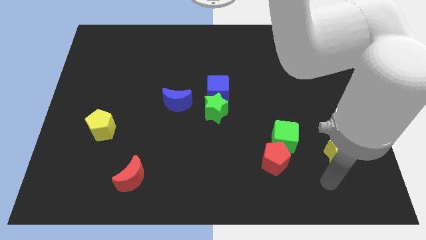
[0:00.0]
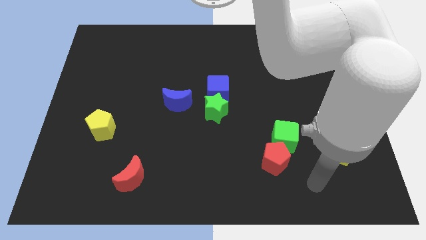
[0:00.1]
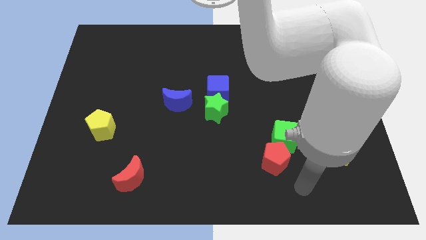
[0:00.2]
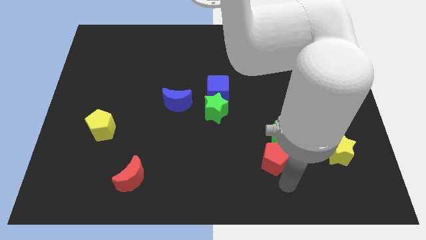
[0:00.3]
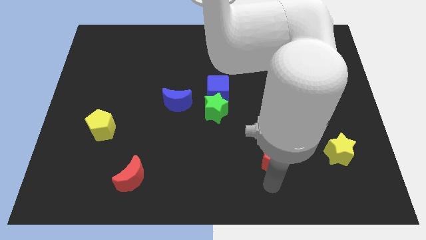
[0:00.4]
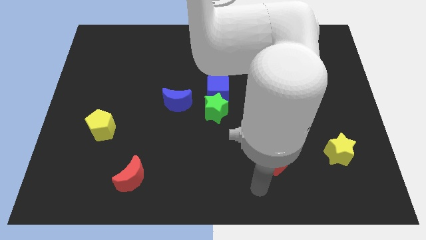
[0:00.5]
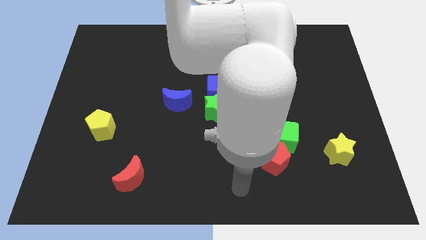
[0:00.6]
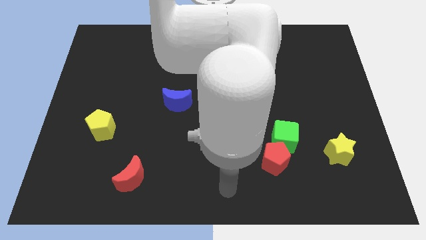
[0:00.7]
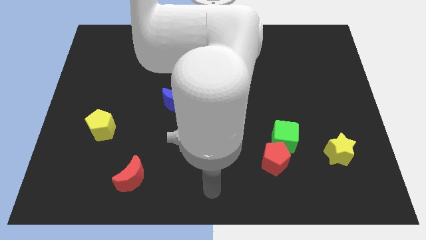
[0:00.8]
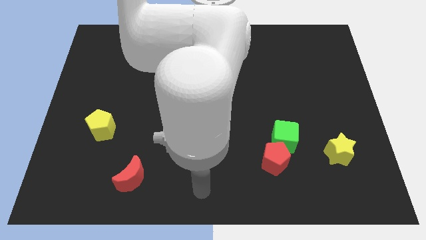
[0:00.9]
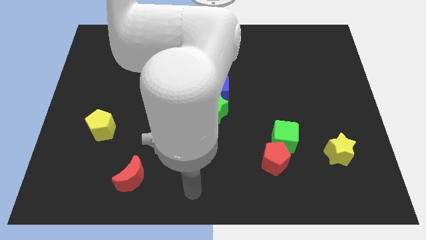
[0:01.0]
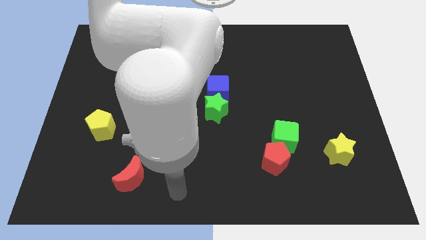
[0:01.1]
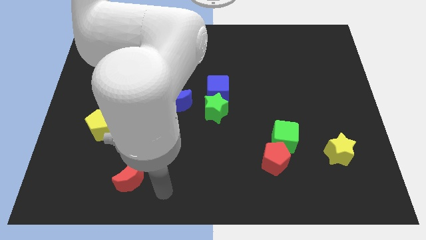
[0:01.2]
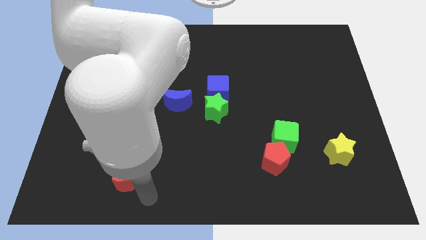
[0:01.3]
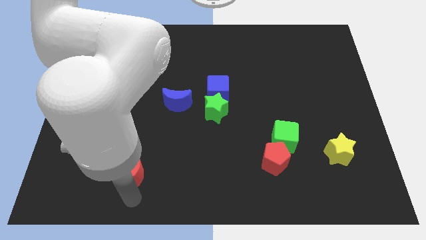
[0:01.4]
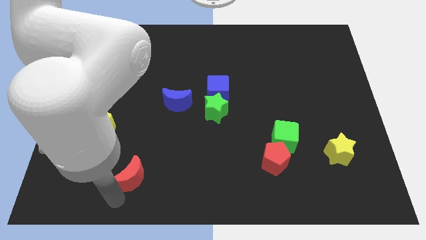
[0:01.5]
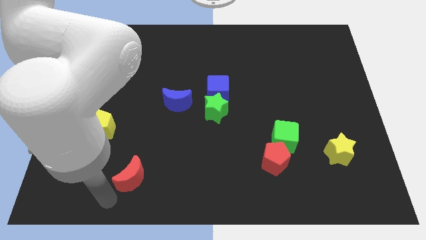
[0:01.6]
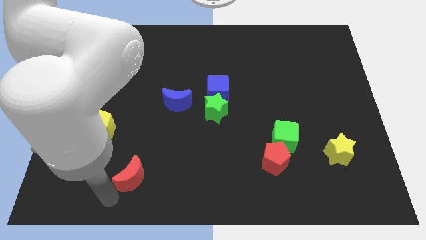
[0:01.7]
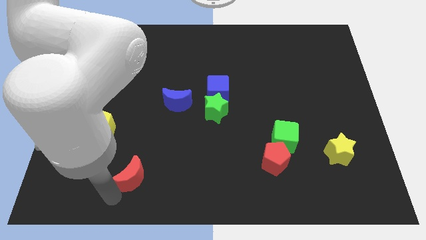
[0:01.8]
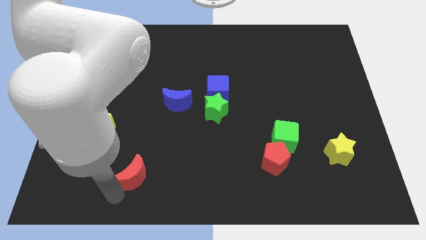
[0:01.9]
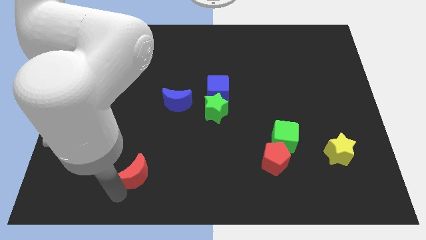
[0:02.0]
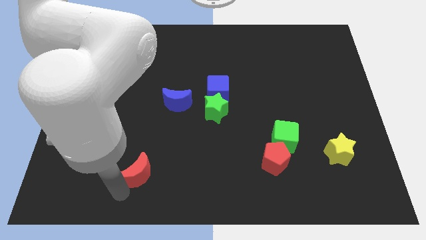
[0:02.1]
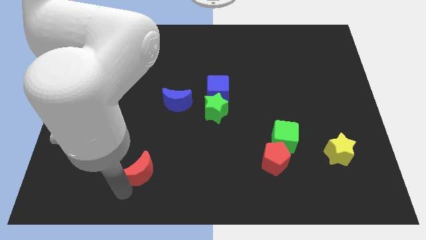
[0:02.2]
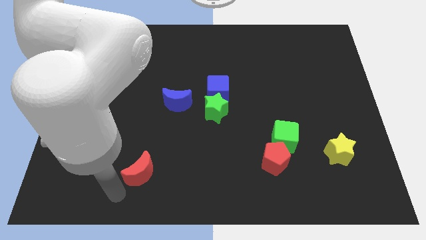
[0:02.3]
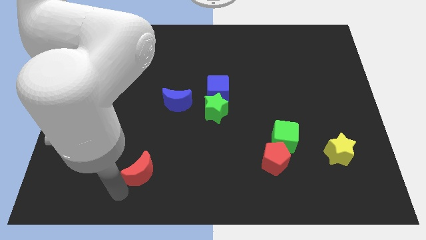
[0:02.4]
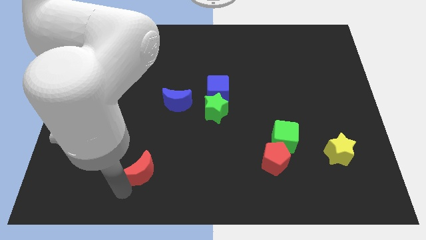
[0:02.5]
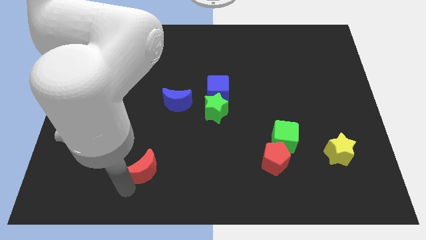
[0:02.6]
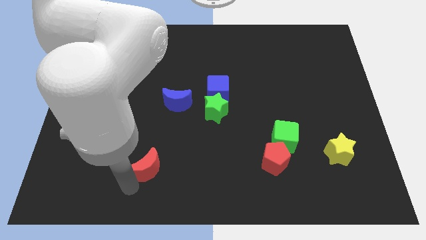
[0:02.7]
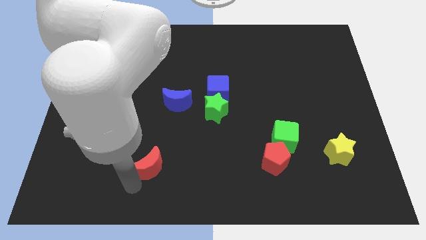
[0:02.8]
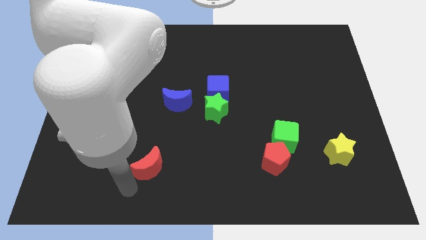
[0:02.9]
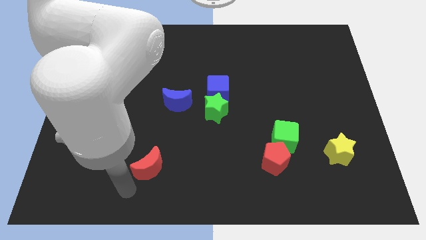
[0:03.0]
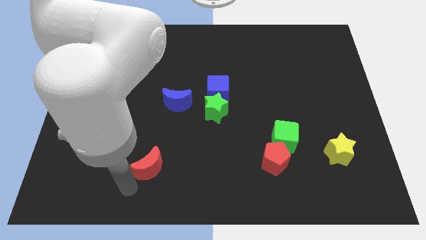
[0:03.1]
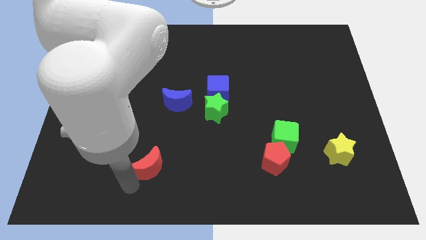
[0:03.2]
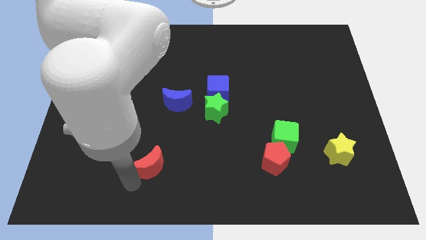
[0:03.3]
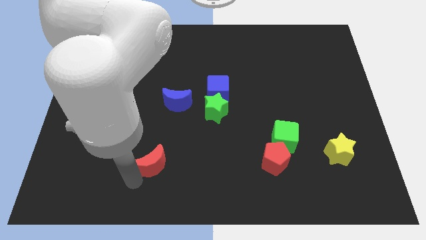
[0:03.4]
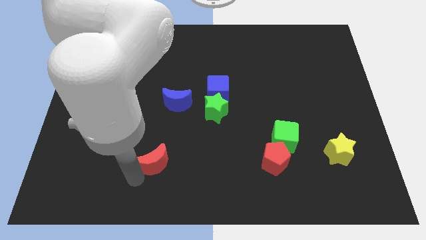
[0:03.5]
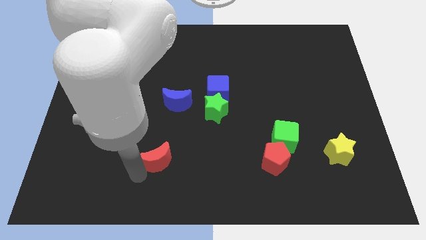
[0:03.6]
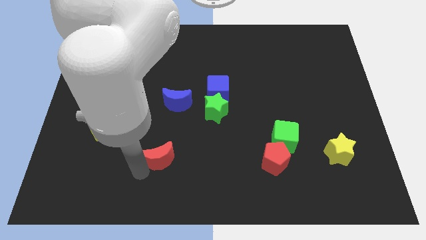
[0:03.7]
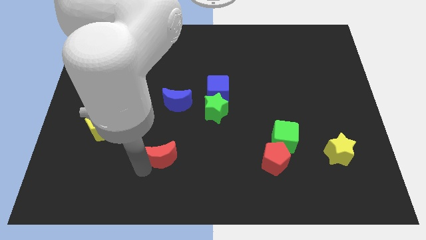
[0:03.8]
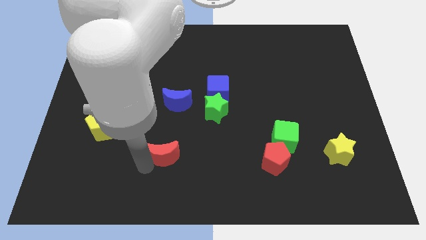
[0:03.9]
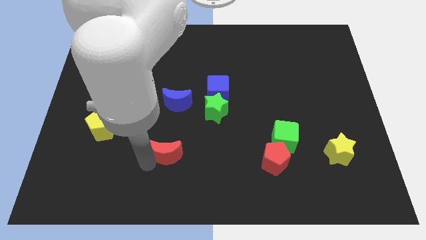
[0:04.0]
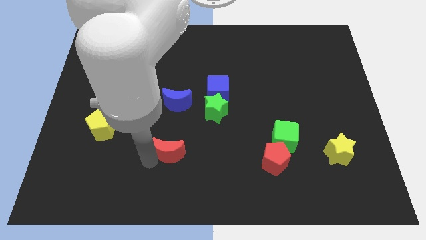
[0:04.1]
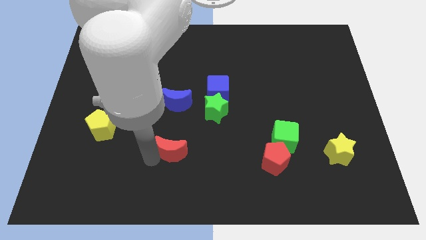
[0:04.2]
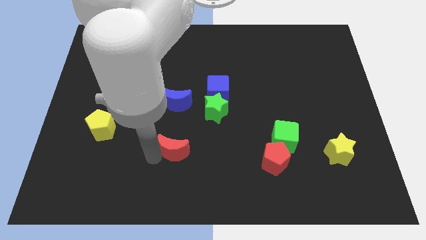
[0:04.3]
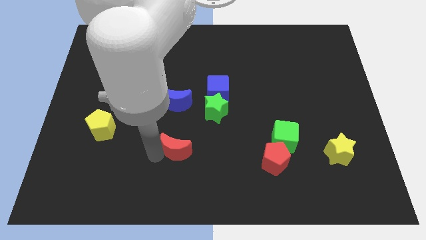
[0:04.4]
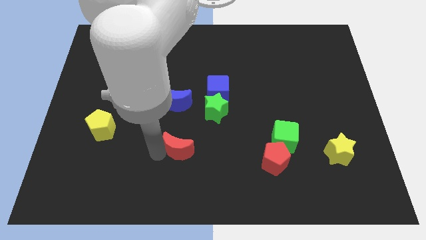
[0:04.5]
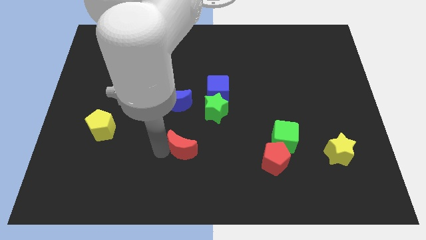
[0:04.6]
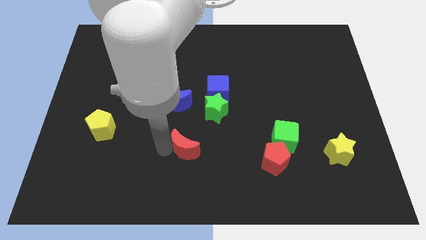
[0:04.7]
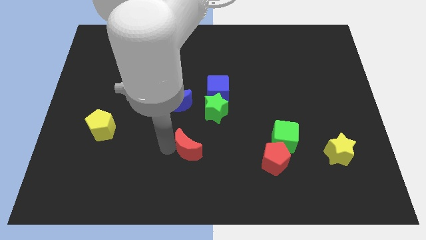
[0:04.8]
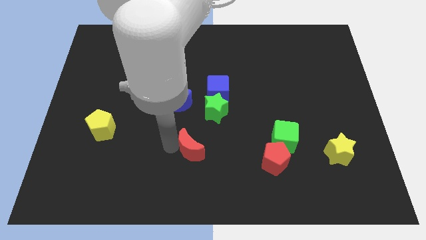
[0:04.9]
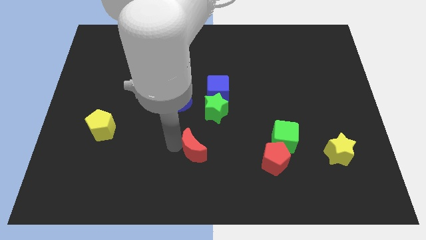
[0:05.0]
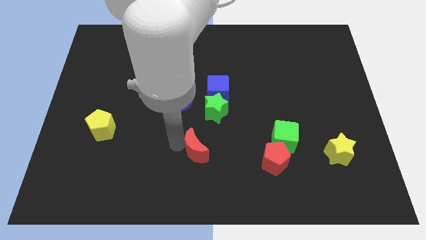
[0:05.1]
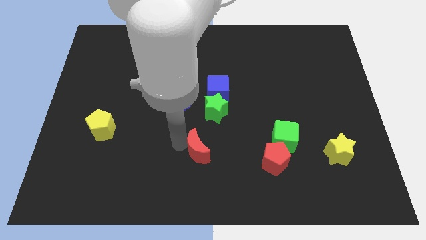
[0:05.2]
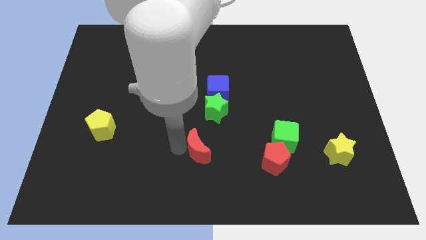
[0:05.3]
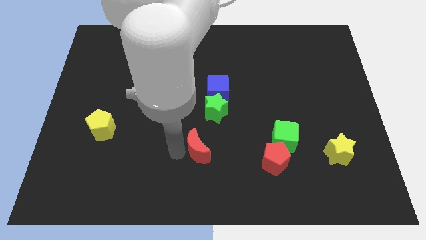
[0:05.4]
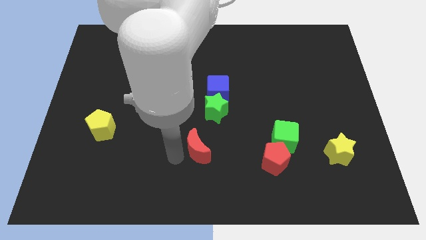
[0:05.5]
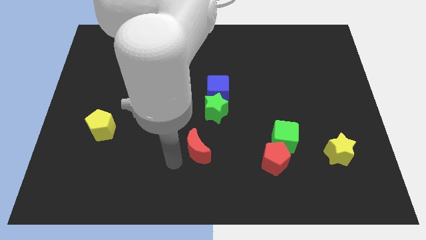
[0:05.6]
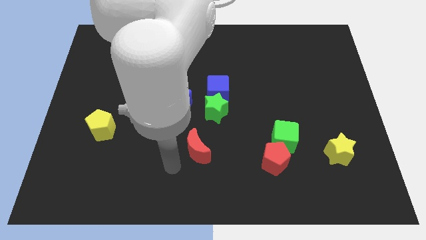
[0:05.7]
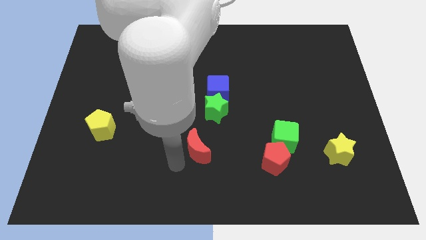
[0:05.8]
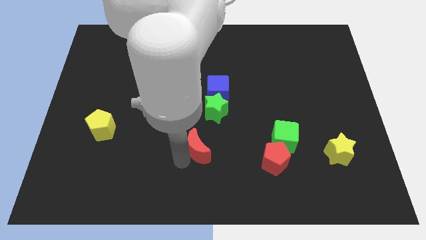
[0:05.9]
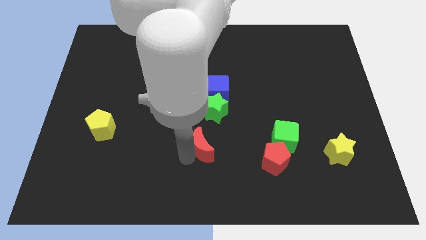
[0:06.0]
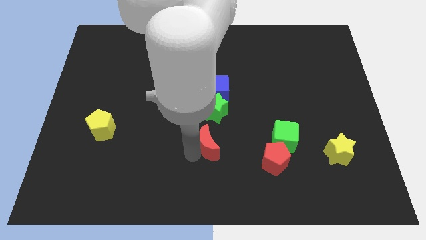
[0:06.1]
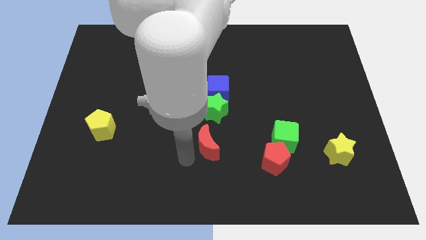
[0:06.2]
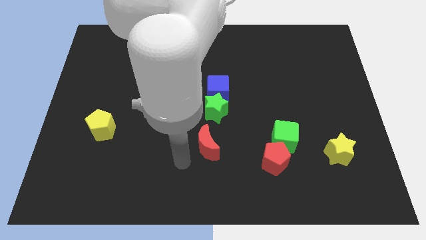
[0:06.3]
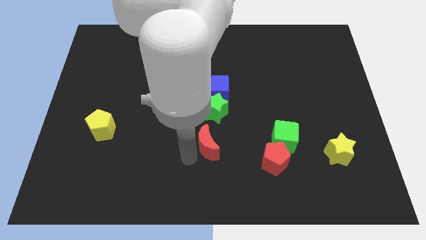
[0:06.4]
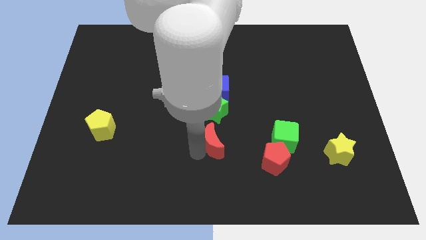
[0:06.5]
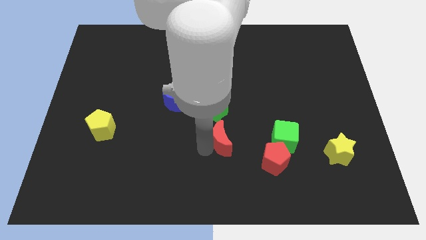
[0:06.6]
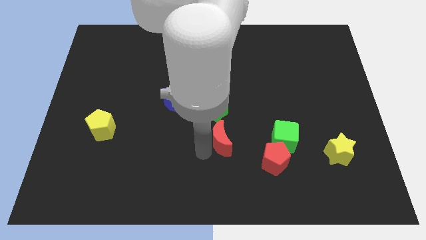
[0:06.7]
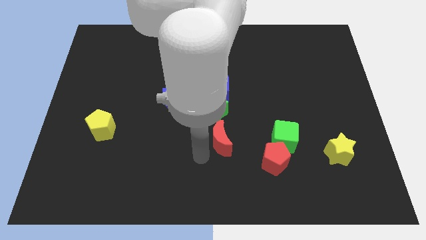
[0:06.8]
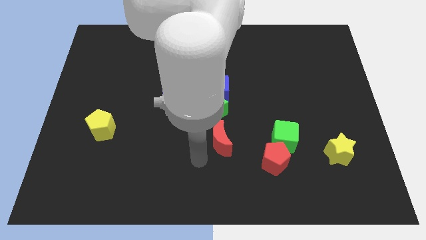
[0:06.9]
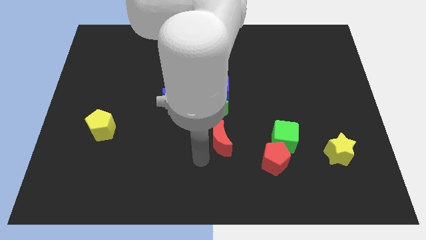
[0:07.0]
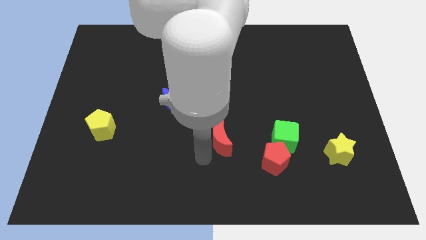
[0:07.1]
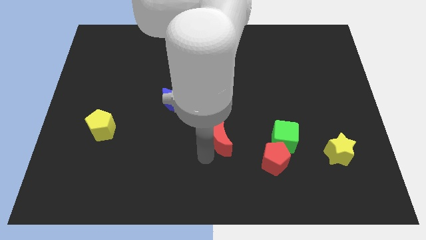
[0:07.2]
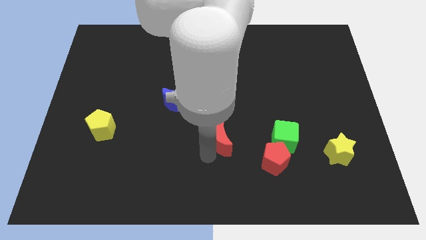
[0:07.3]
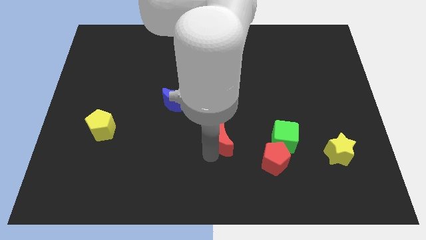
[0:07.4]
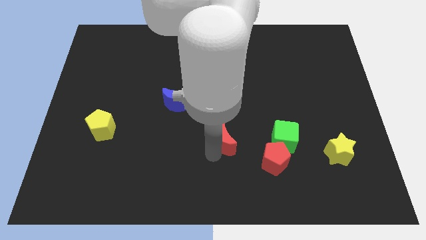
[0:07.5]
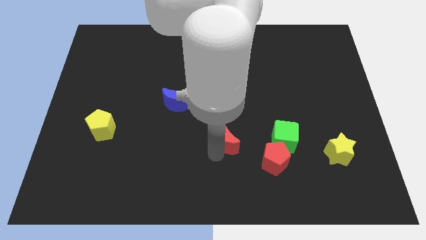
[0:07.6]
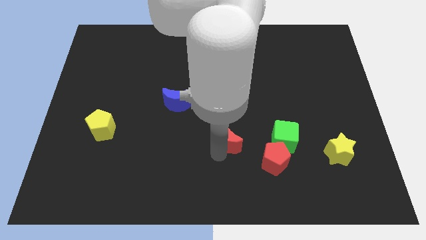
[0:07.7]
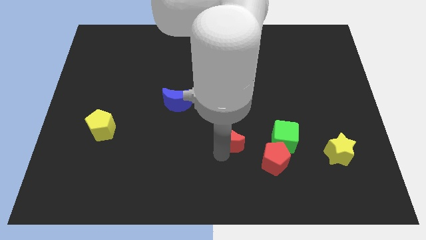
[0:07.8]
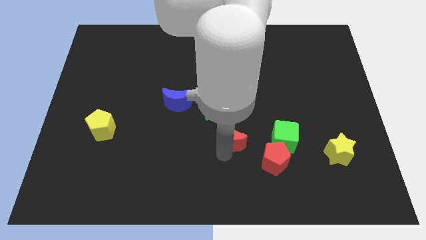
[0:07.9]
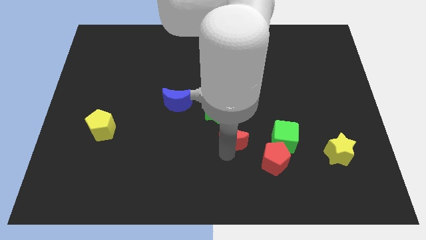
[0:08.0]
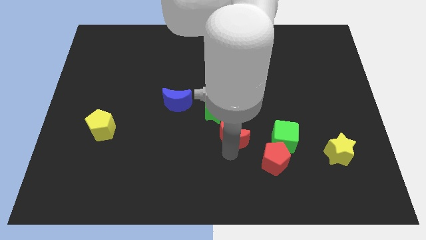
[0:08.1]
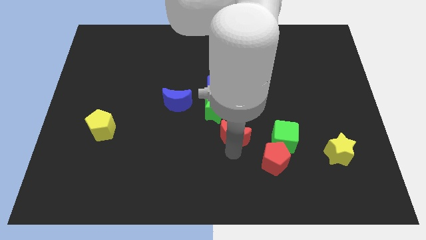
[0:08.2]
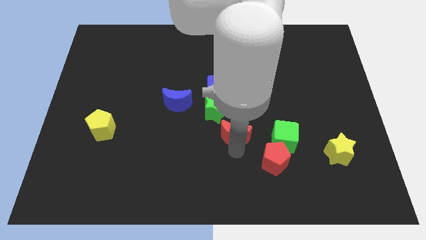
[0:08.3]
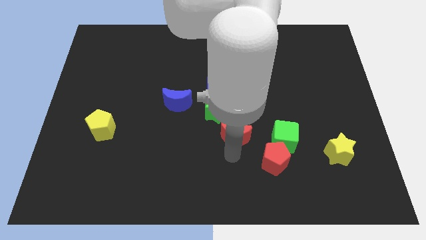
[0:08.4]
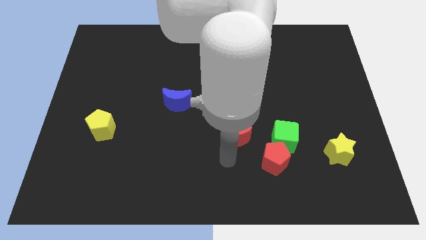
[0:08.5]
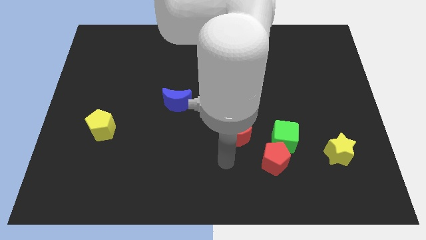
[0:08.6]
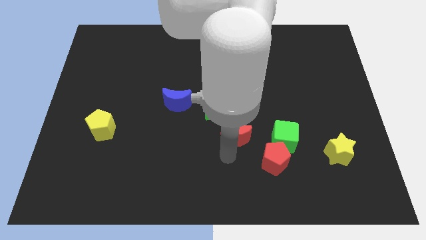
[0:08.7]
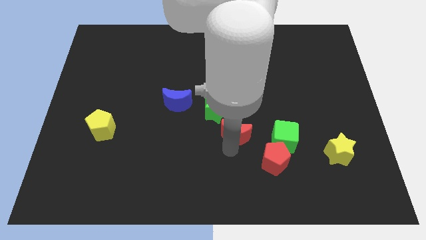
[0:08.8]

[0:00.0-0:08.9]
slide the red moon diagonally up and to the right
